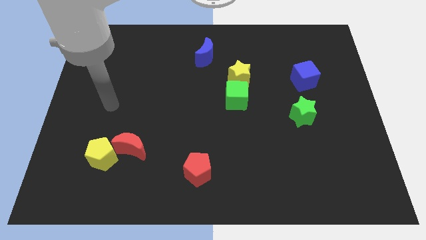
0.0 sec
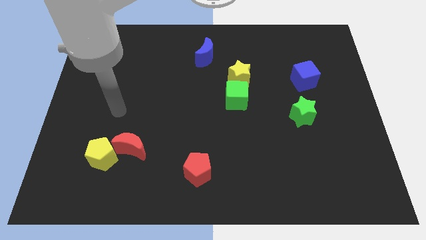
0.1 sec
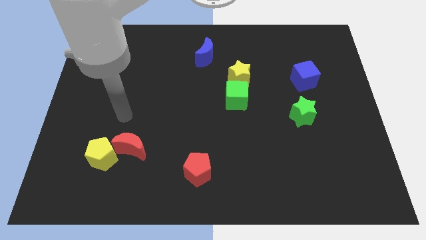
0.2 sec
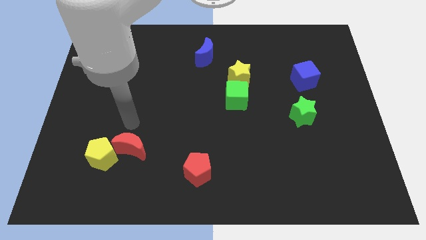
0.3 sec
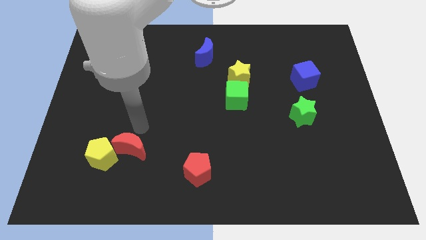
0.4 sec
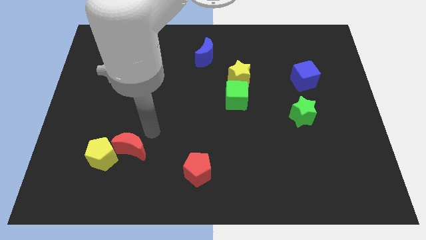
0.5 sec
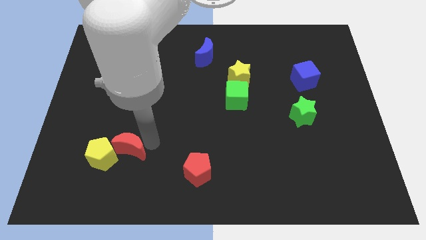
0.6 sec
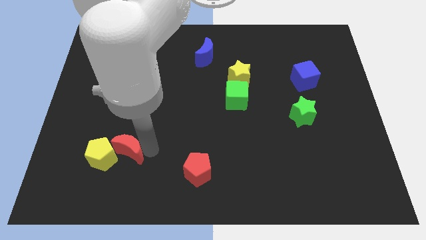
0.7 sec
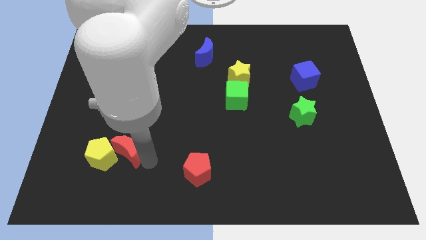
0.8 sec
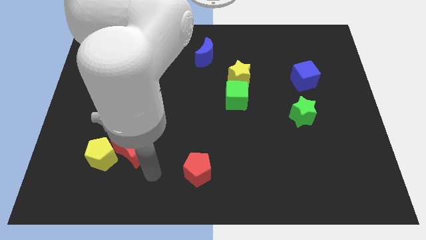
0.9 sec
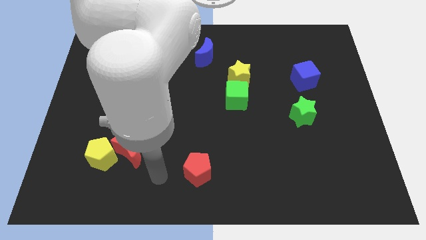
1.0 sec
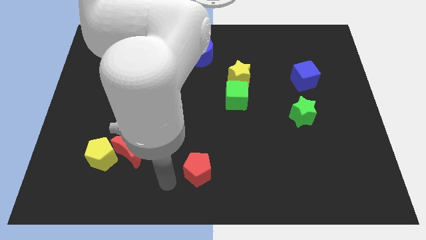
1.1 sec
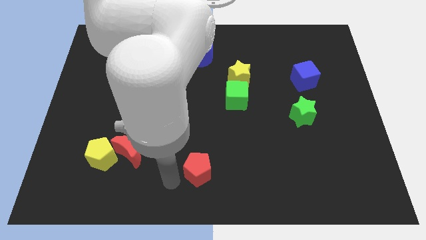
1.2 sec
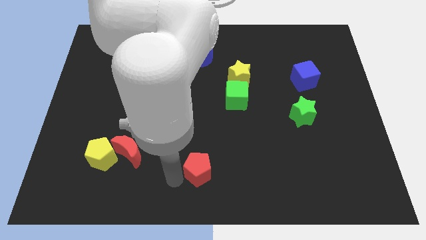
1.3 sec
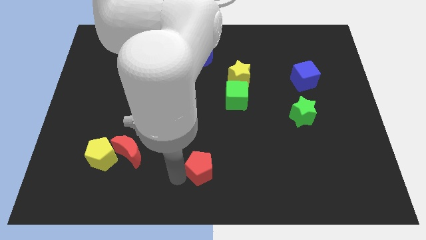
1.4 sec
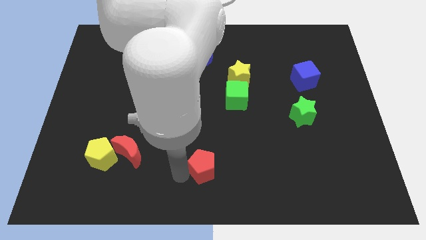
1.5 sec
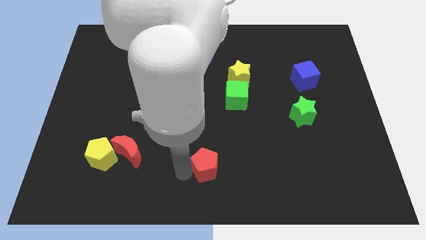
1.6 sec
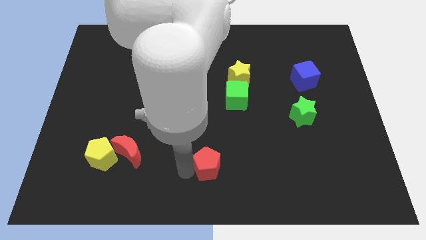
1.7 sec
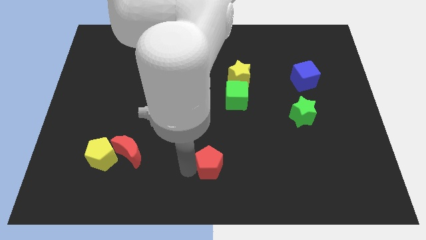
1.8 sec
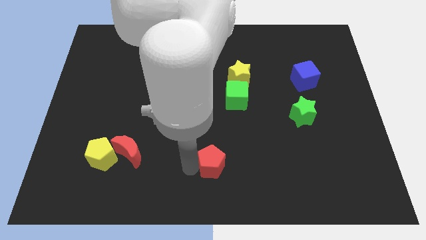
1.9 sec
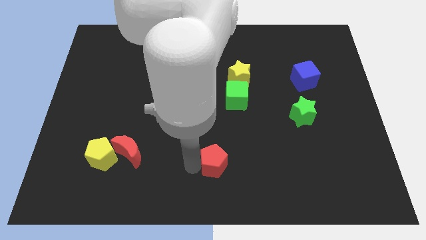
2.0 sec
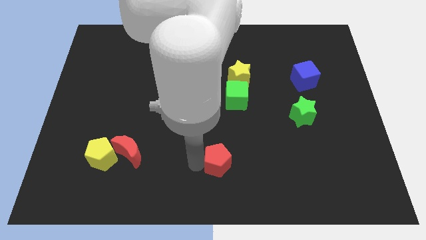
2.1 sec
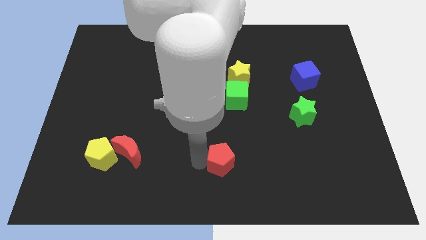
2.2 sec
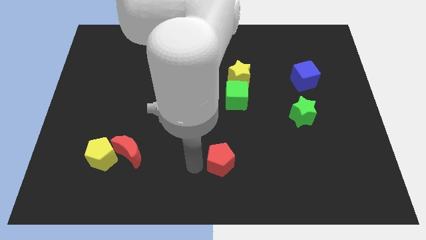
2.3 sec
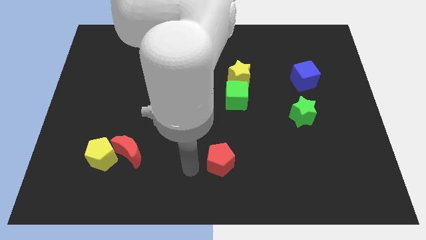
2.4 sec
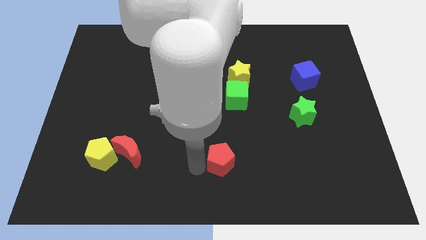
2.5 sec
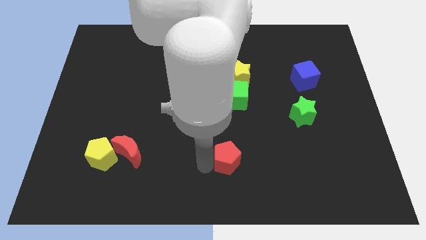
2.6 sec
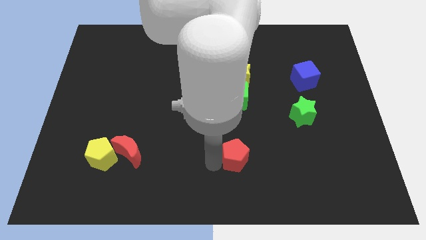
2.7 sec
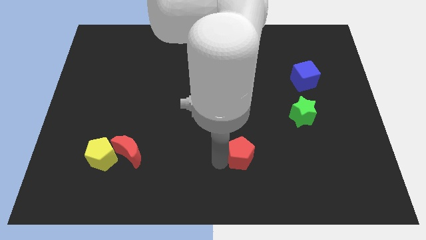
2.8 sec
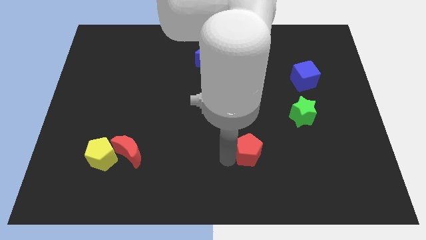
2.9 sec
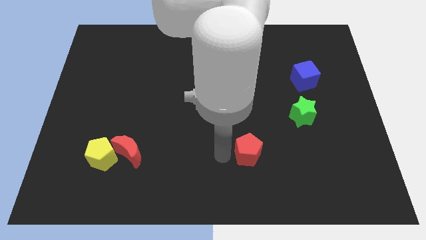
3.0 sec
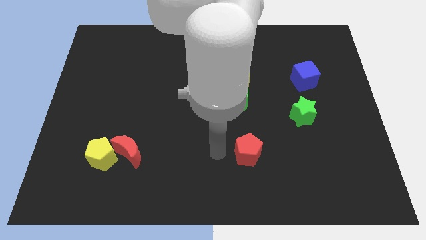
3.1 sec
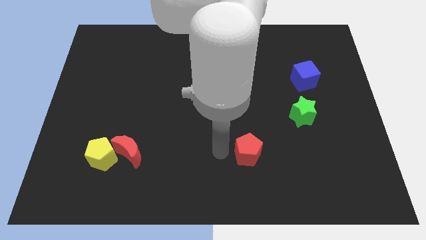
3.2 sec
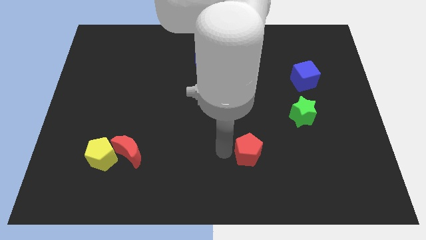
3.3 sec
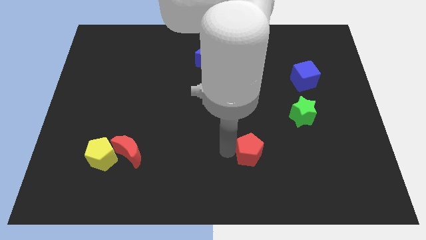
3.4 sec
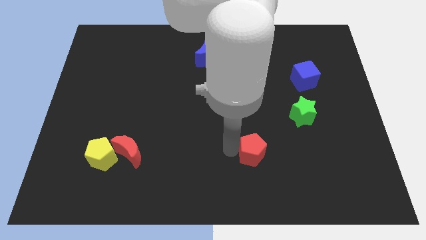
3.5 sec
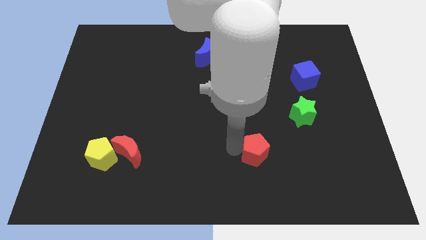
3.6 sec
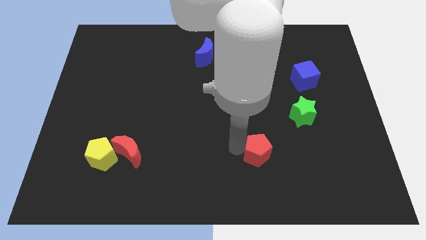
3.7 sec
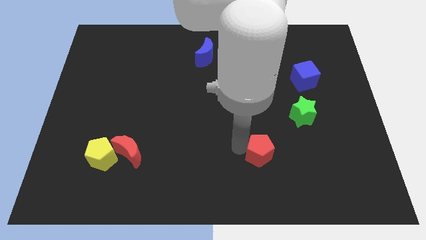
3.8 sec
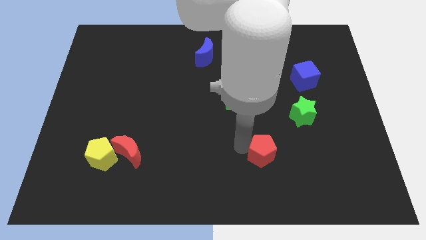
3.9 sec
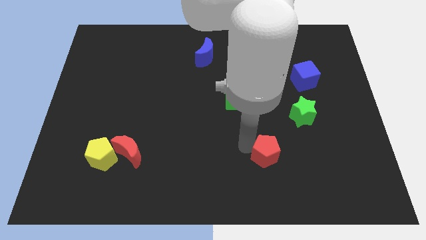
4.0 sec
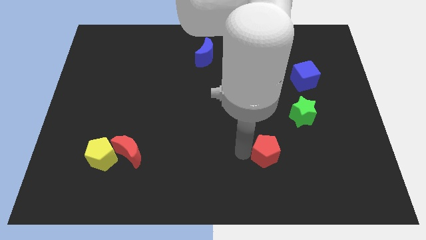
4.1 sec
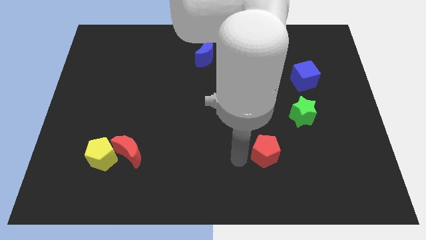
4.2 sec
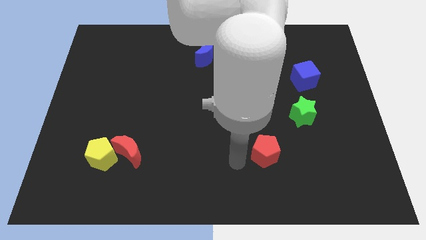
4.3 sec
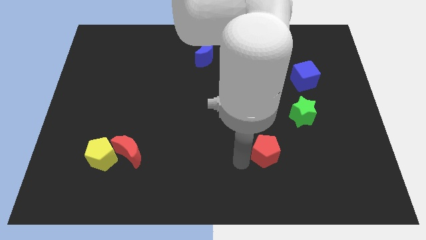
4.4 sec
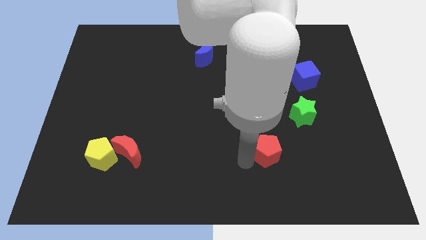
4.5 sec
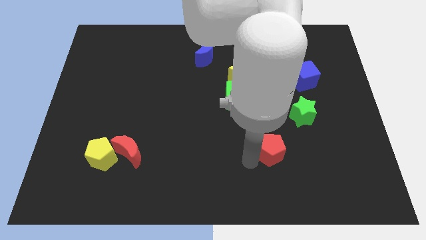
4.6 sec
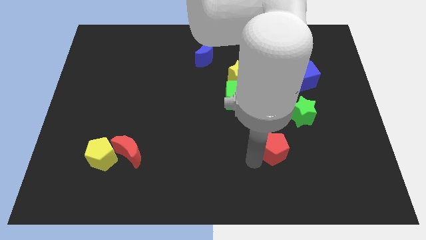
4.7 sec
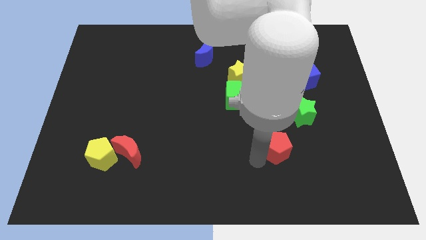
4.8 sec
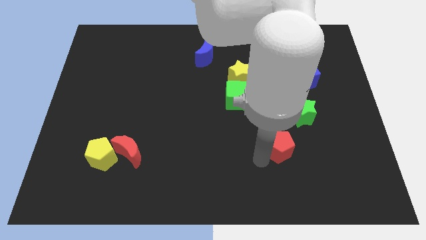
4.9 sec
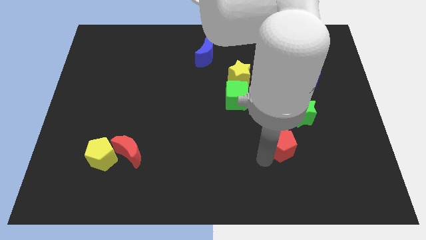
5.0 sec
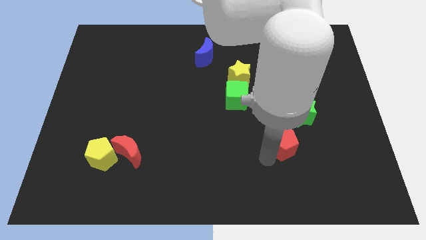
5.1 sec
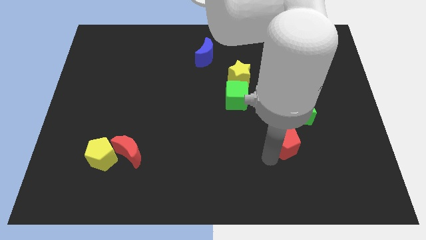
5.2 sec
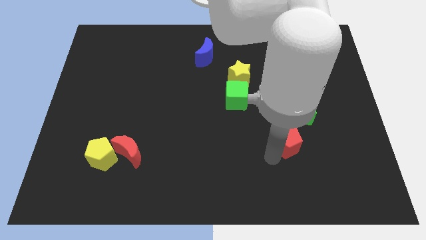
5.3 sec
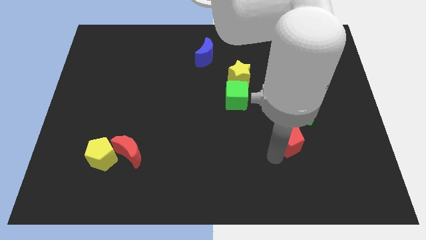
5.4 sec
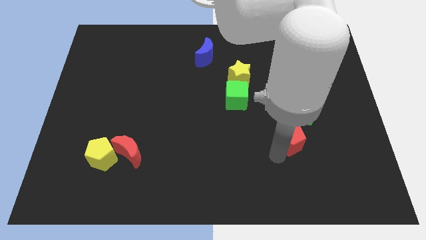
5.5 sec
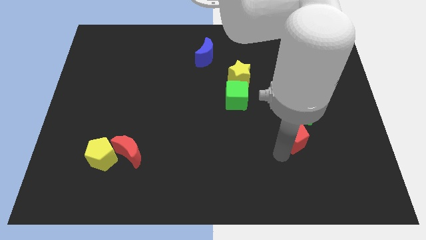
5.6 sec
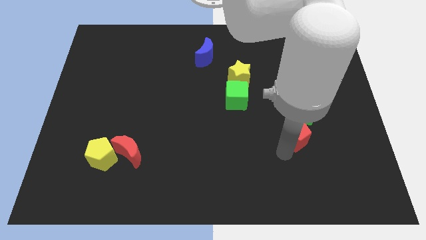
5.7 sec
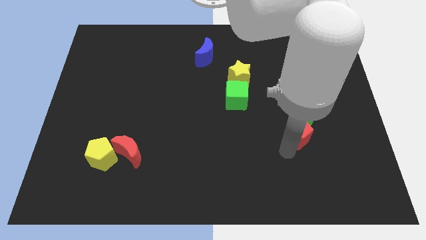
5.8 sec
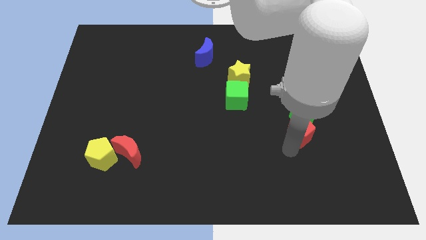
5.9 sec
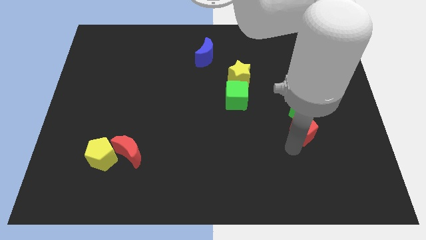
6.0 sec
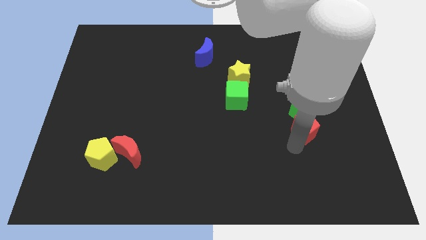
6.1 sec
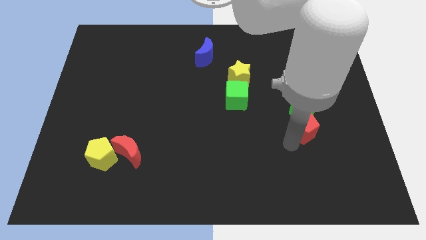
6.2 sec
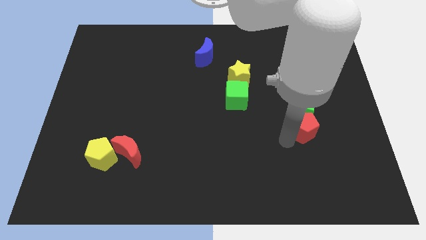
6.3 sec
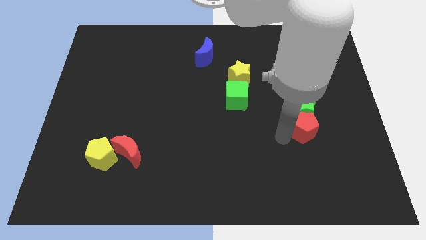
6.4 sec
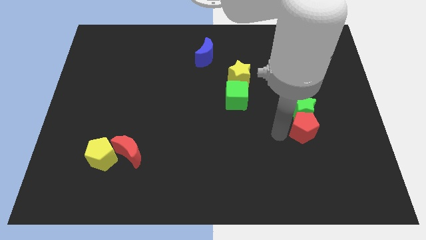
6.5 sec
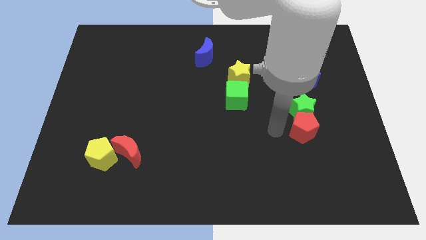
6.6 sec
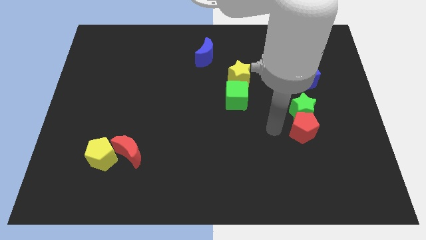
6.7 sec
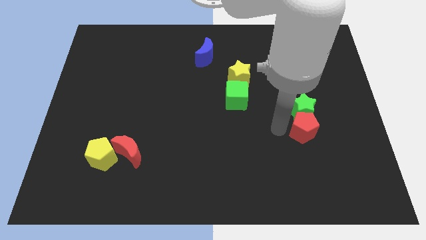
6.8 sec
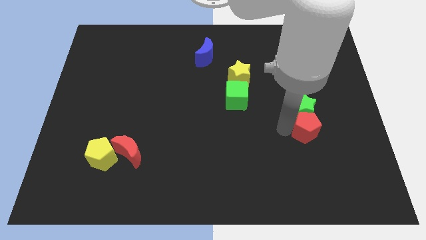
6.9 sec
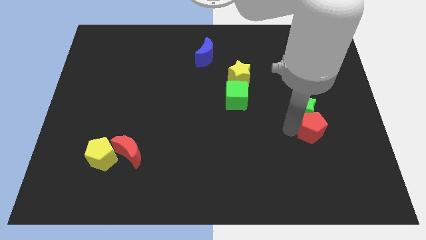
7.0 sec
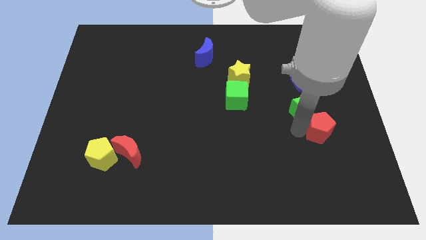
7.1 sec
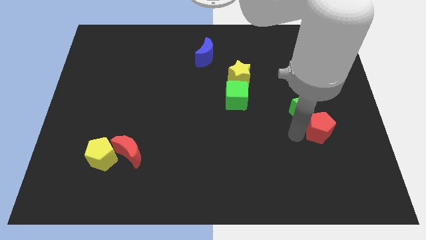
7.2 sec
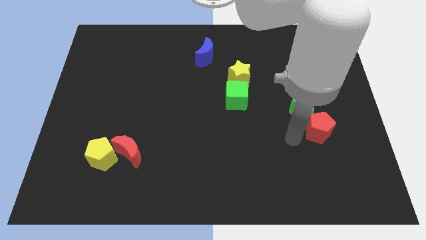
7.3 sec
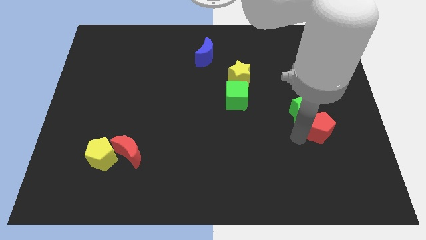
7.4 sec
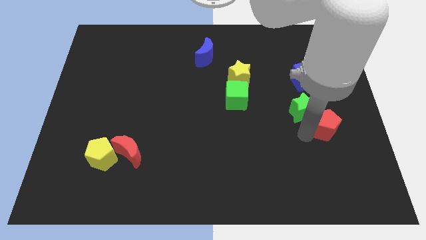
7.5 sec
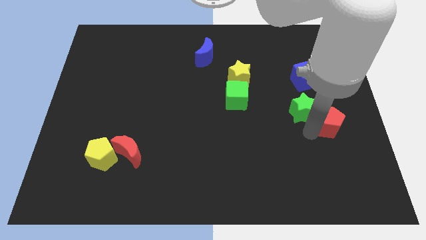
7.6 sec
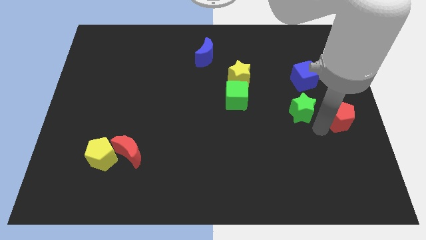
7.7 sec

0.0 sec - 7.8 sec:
put the red pentagon to the right side of the board
